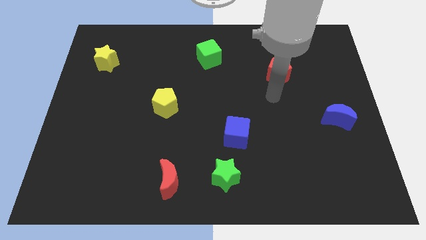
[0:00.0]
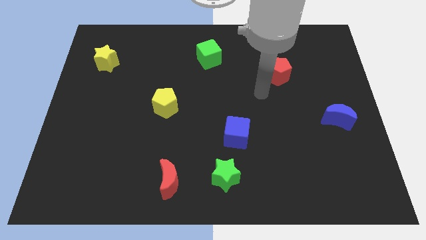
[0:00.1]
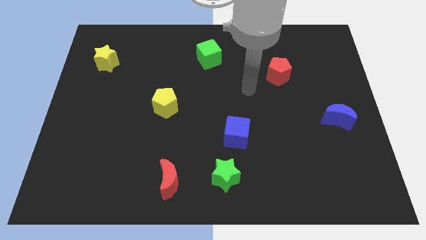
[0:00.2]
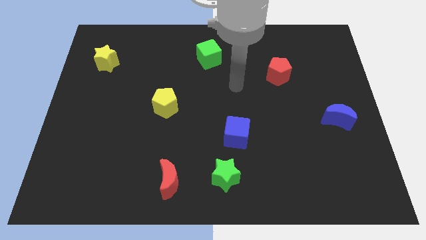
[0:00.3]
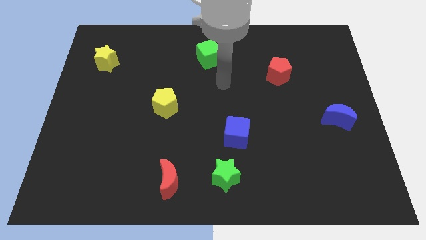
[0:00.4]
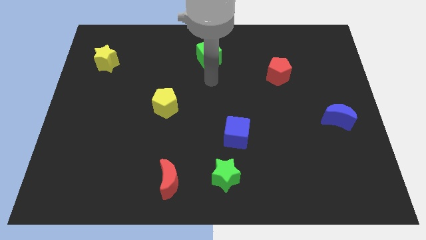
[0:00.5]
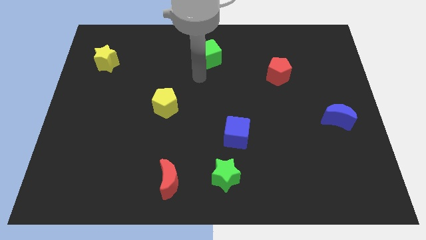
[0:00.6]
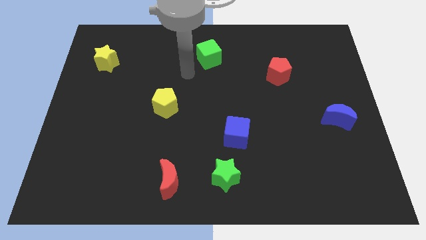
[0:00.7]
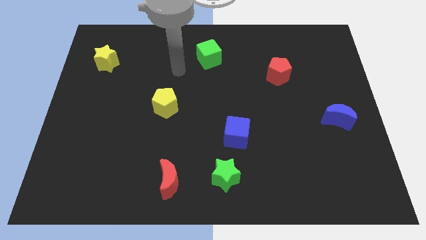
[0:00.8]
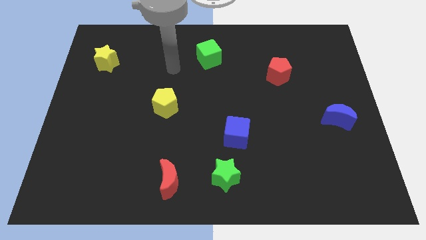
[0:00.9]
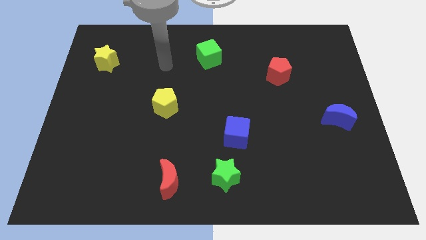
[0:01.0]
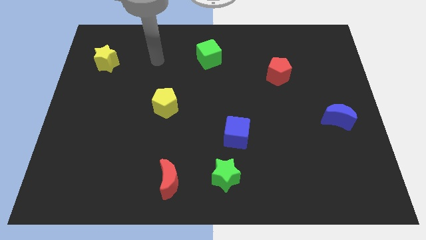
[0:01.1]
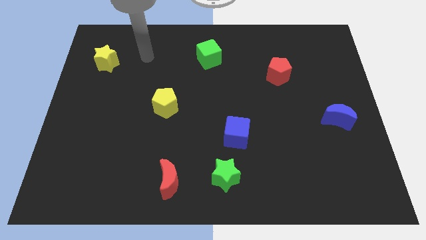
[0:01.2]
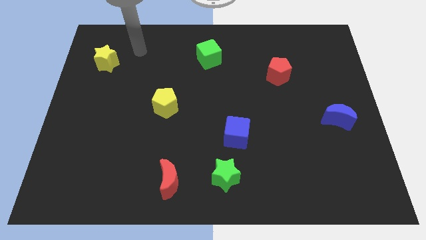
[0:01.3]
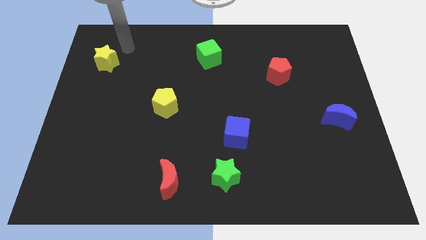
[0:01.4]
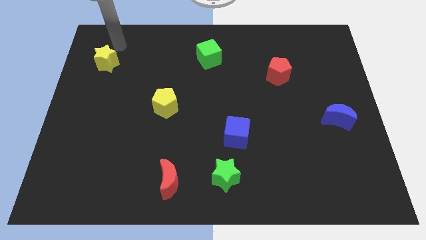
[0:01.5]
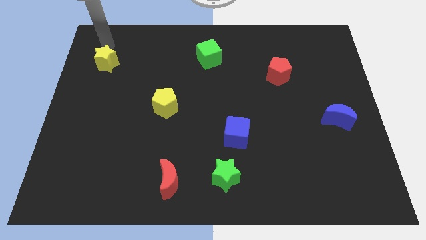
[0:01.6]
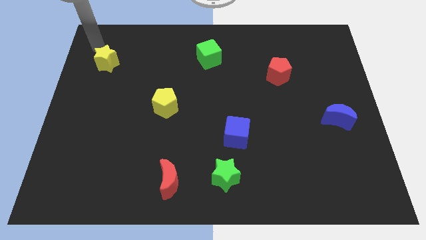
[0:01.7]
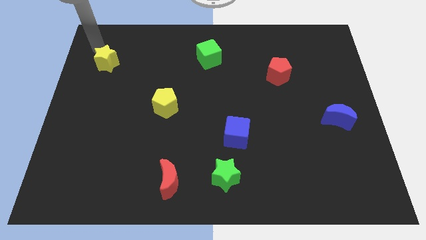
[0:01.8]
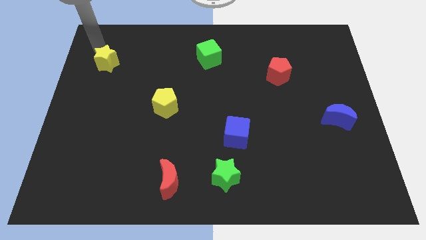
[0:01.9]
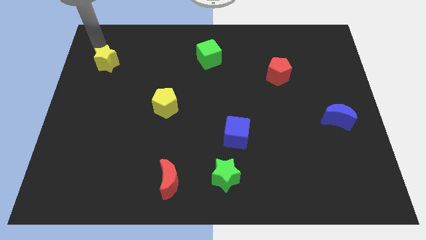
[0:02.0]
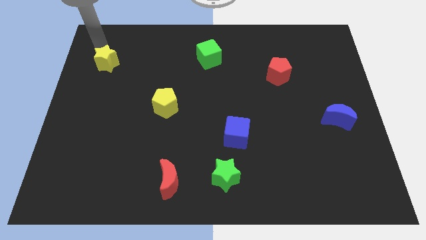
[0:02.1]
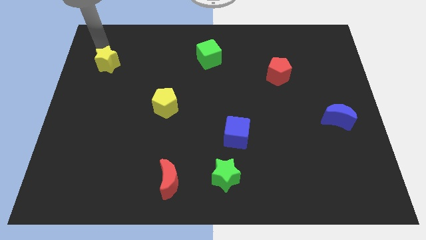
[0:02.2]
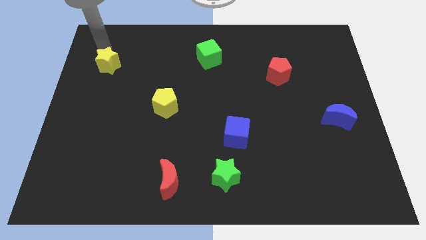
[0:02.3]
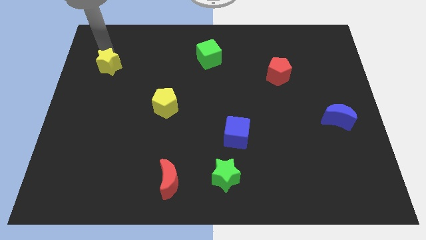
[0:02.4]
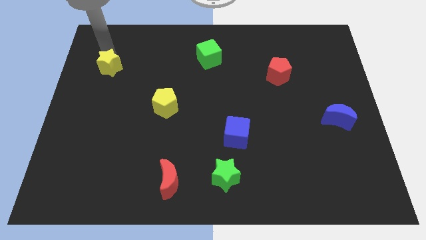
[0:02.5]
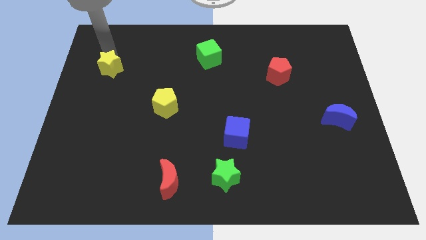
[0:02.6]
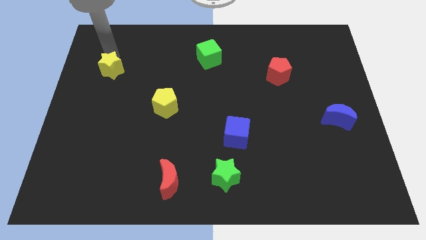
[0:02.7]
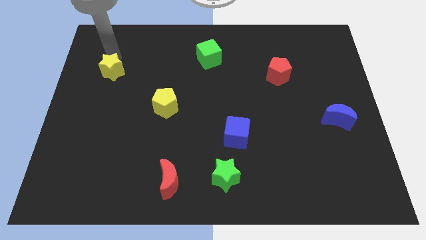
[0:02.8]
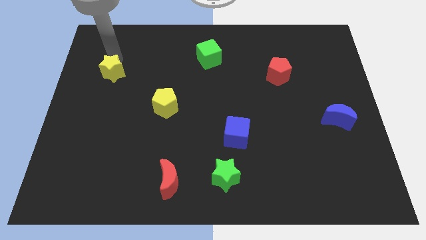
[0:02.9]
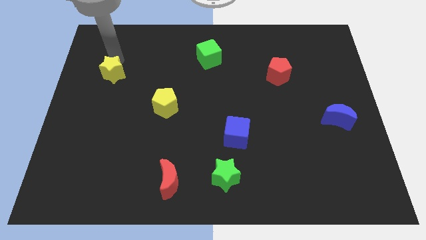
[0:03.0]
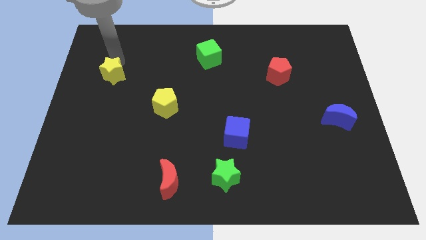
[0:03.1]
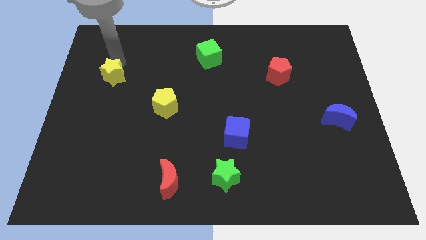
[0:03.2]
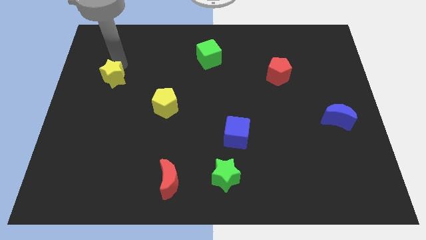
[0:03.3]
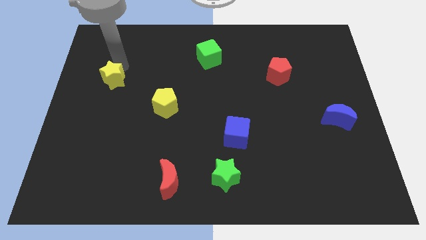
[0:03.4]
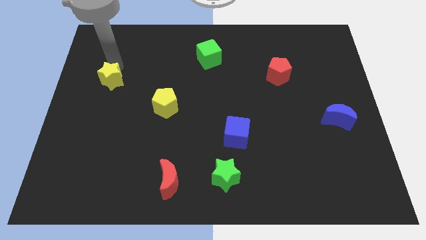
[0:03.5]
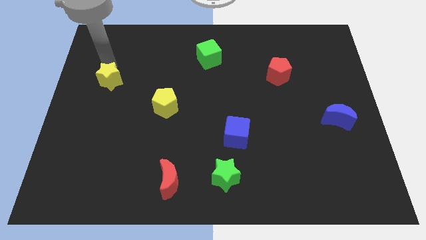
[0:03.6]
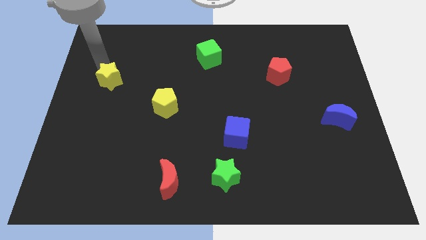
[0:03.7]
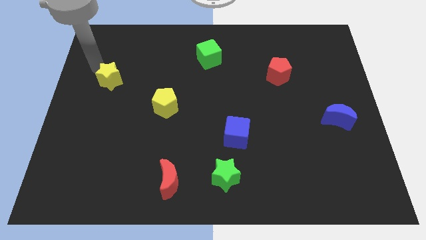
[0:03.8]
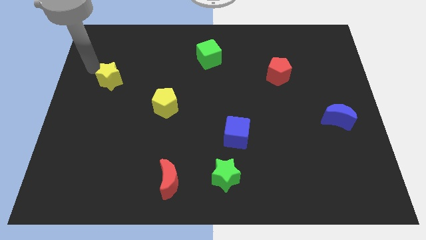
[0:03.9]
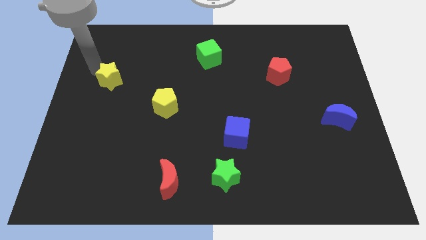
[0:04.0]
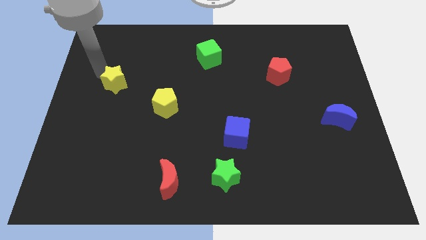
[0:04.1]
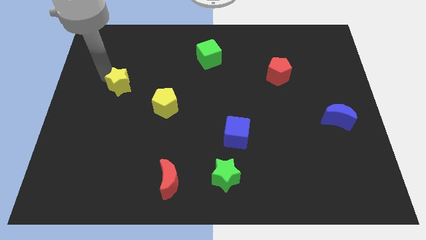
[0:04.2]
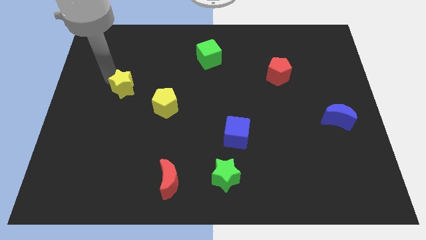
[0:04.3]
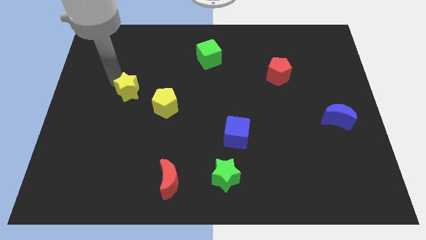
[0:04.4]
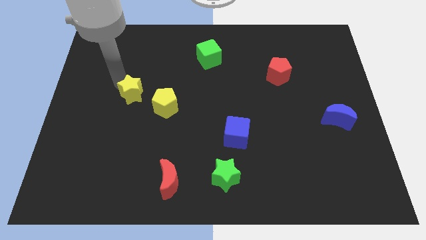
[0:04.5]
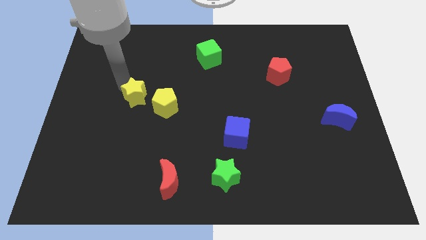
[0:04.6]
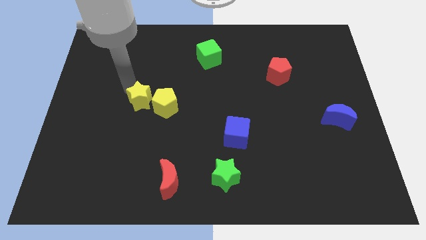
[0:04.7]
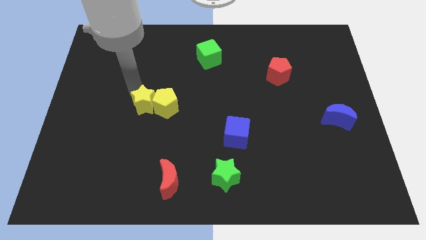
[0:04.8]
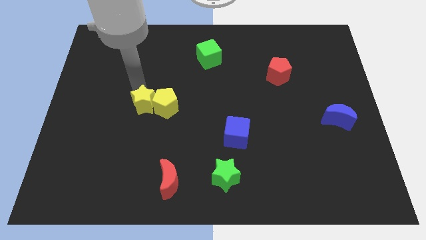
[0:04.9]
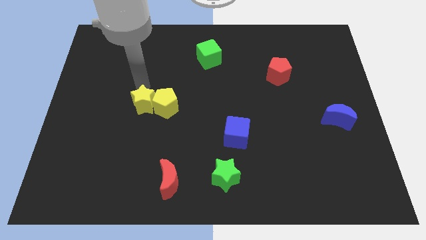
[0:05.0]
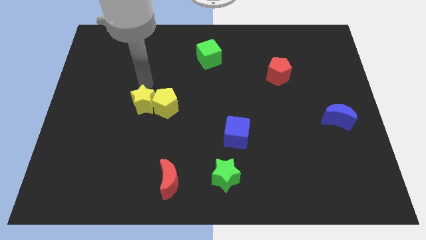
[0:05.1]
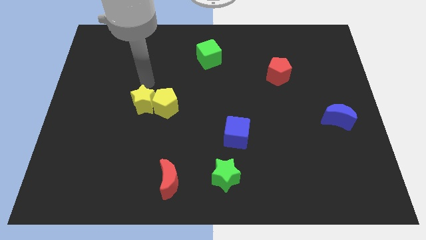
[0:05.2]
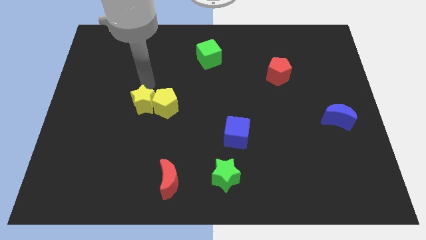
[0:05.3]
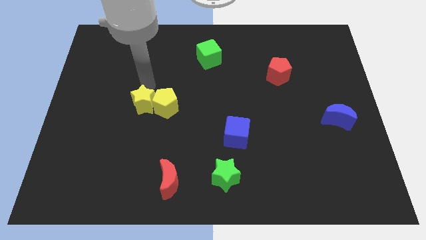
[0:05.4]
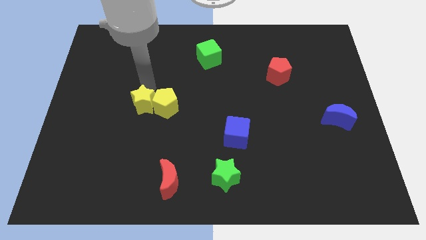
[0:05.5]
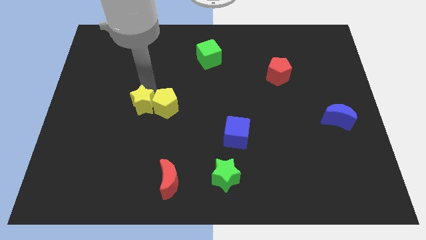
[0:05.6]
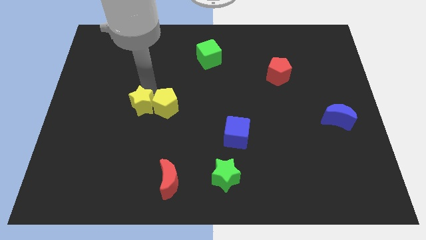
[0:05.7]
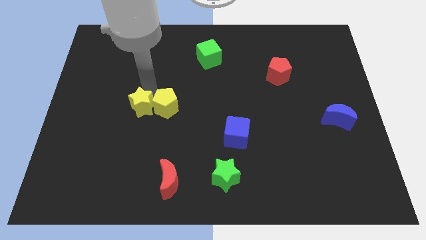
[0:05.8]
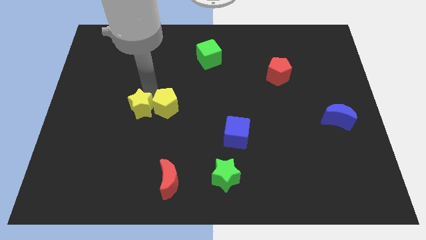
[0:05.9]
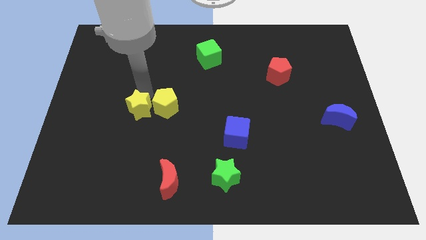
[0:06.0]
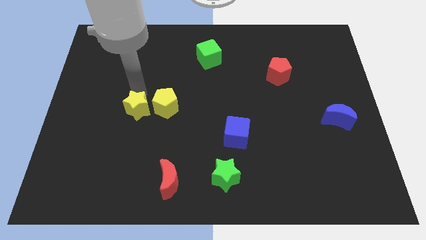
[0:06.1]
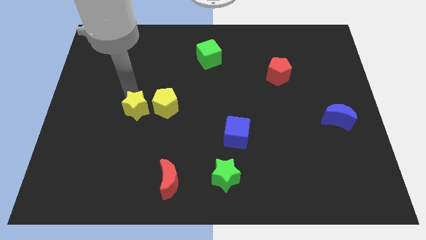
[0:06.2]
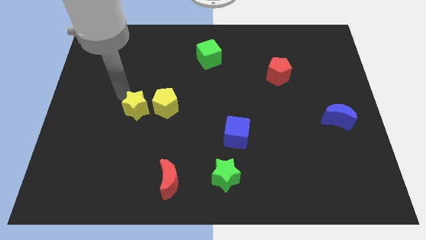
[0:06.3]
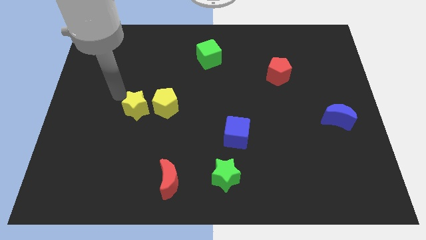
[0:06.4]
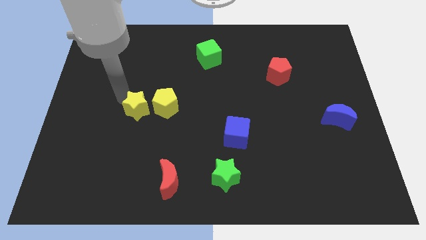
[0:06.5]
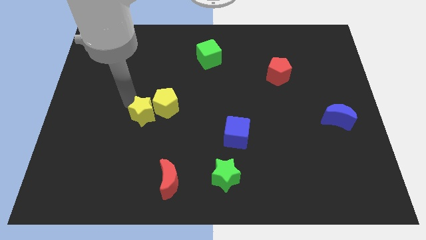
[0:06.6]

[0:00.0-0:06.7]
slide the yellow star down and to the right

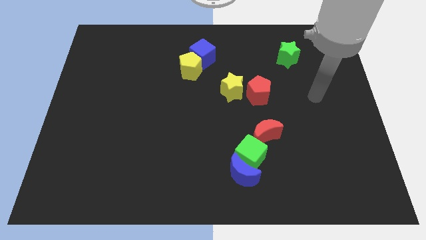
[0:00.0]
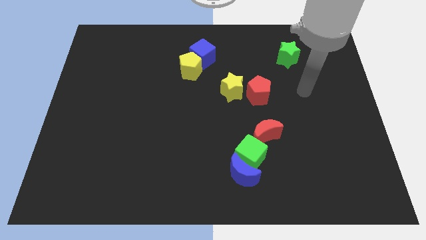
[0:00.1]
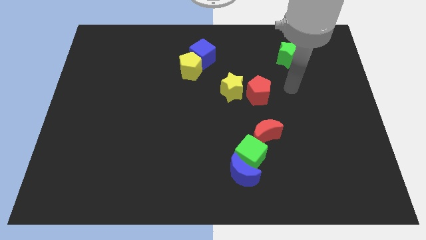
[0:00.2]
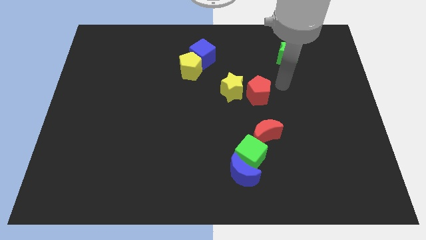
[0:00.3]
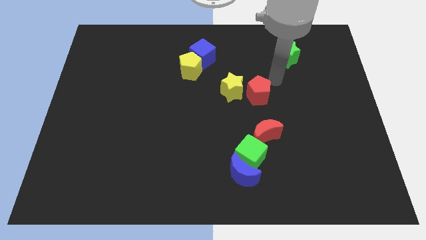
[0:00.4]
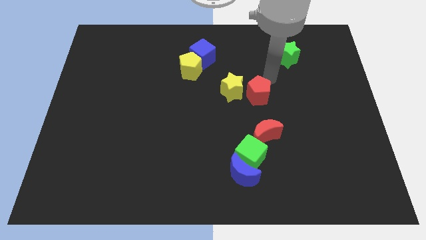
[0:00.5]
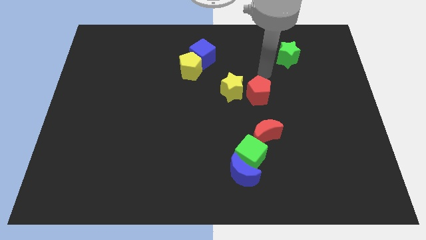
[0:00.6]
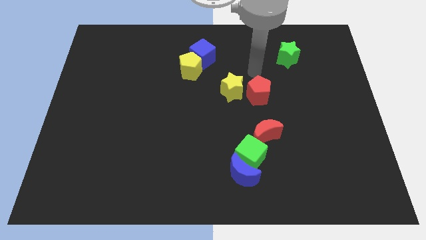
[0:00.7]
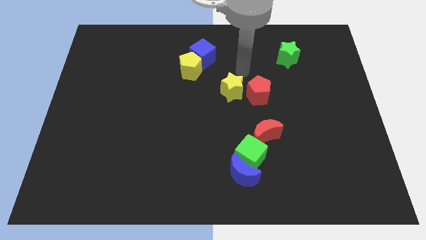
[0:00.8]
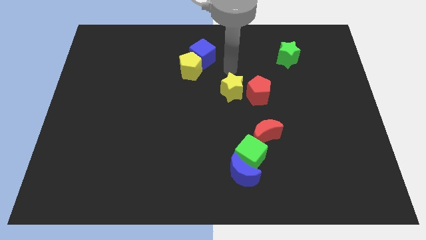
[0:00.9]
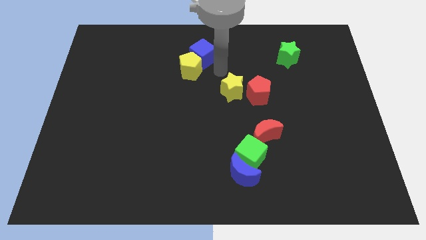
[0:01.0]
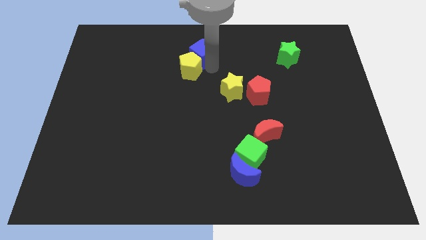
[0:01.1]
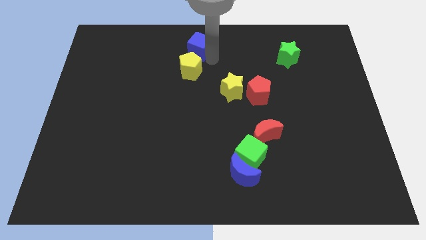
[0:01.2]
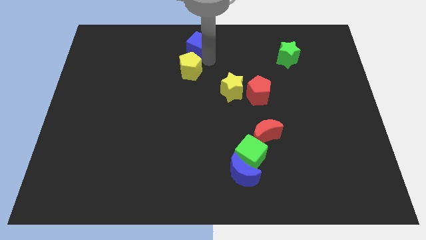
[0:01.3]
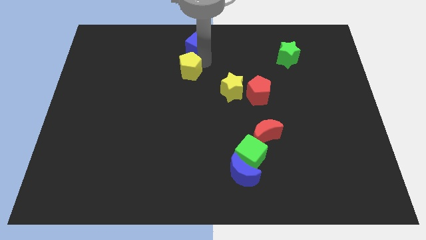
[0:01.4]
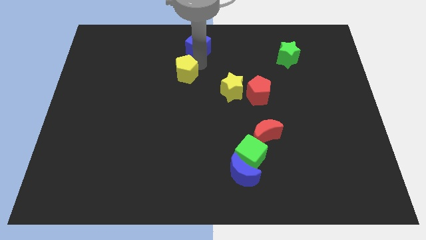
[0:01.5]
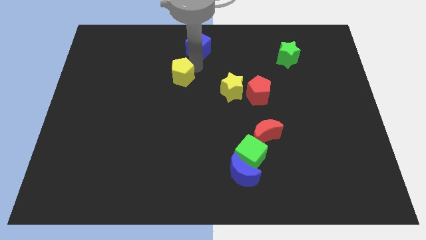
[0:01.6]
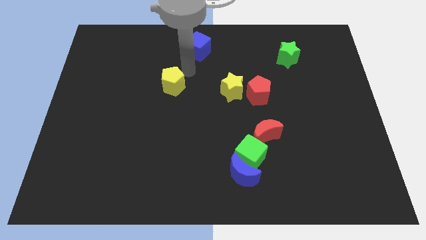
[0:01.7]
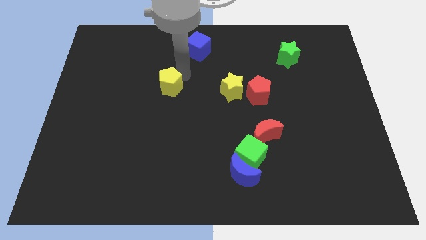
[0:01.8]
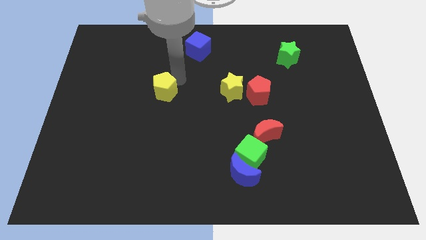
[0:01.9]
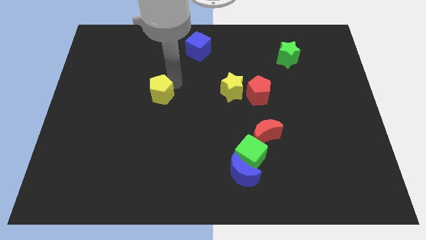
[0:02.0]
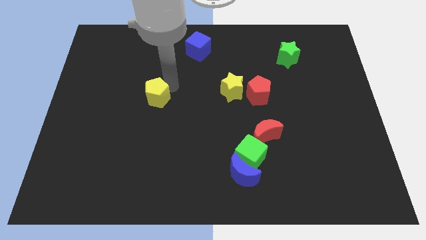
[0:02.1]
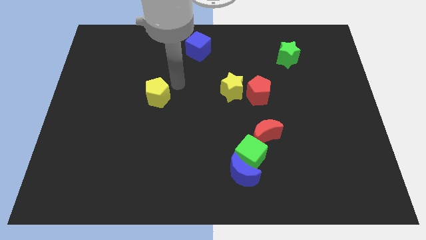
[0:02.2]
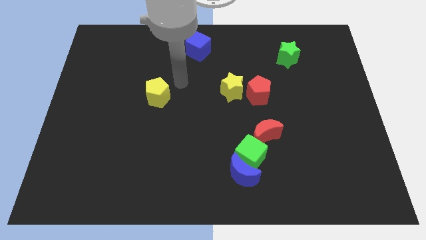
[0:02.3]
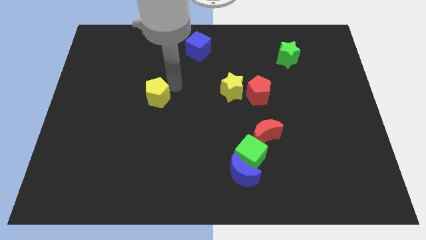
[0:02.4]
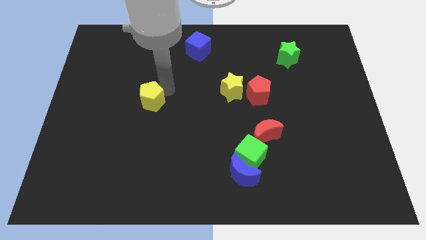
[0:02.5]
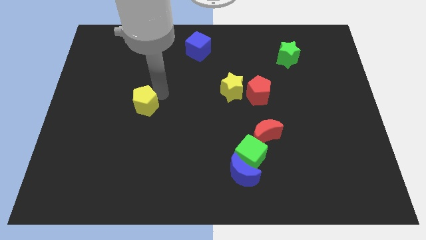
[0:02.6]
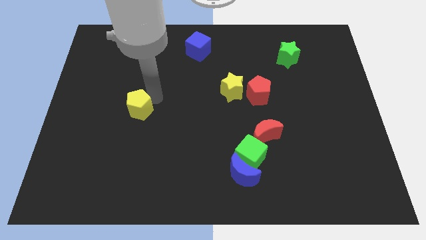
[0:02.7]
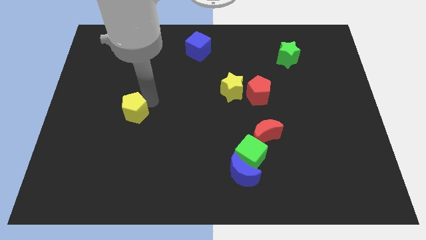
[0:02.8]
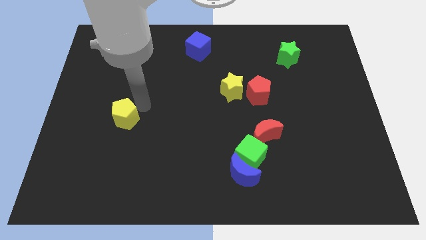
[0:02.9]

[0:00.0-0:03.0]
move the yellow pentagon downwards and then to the left
